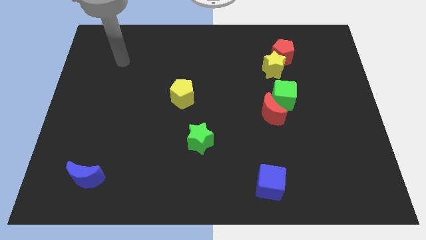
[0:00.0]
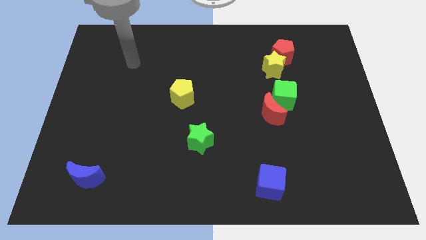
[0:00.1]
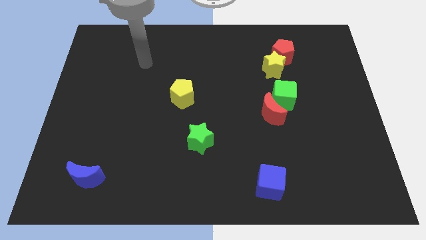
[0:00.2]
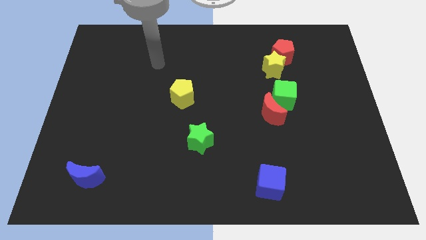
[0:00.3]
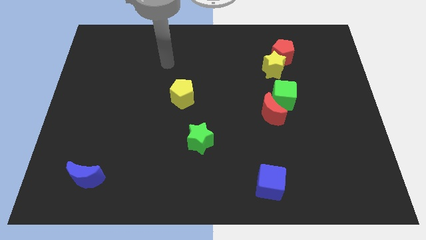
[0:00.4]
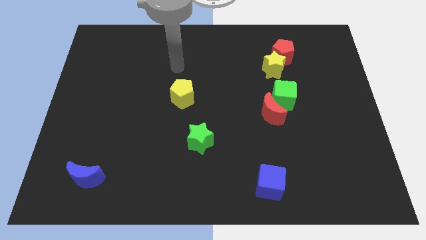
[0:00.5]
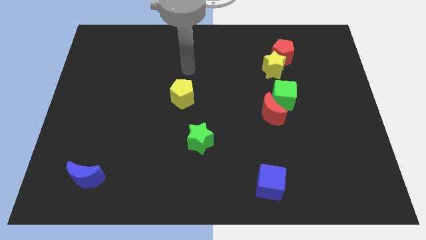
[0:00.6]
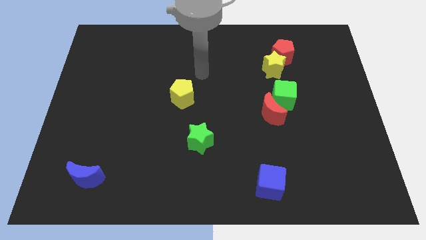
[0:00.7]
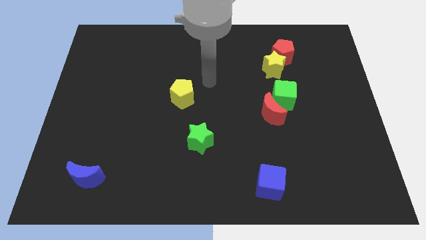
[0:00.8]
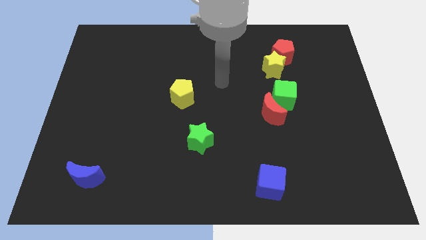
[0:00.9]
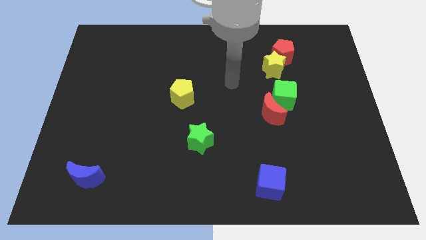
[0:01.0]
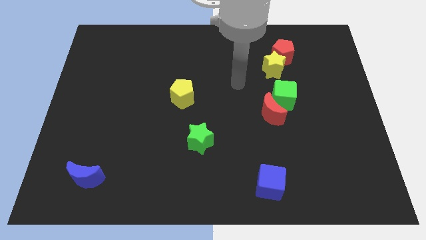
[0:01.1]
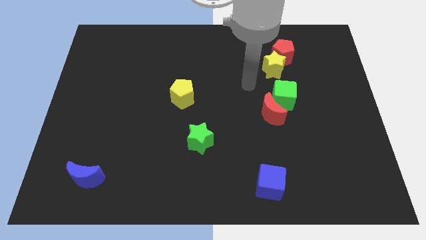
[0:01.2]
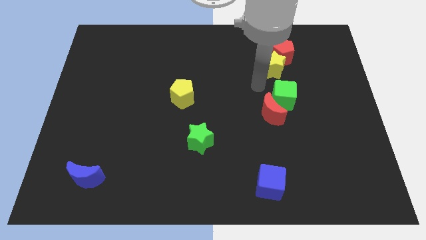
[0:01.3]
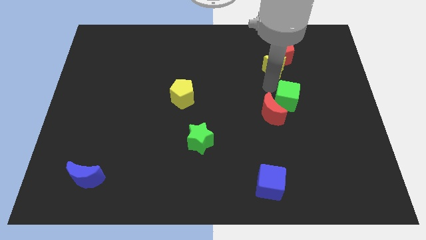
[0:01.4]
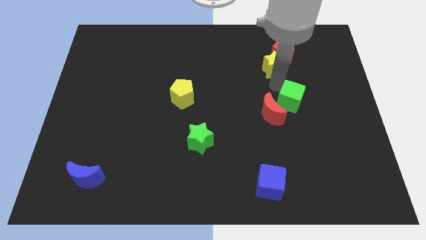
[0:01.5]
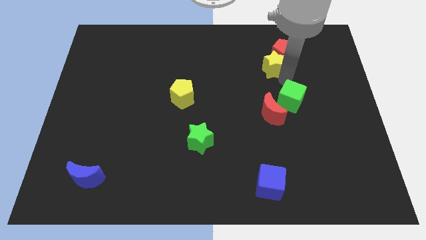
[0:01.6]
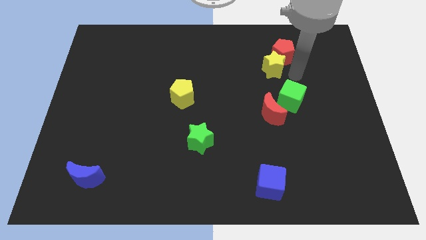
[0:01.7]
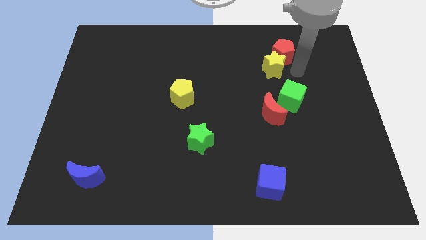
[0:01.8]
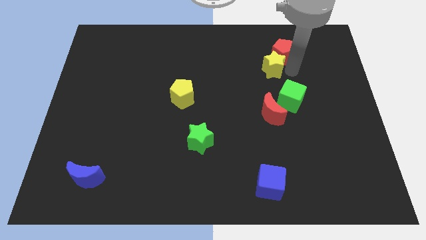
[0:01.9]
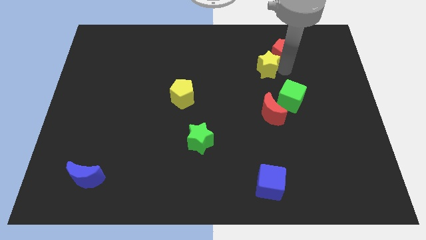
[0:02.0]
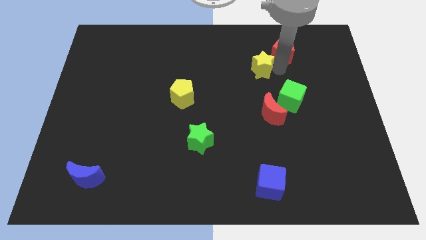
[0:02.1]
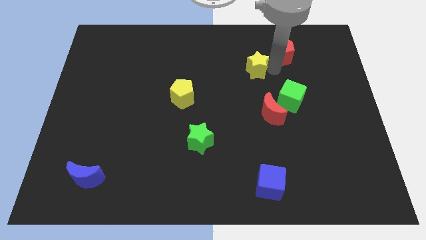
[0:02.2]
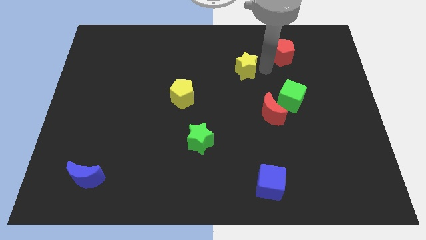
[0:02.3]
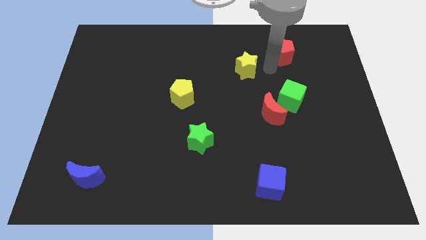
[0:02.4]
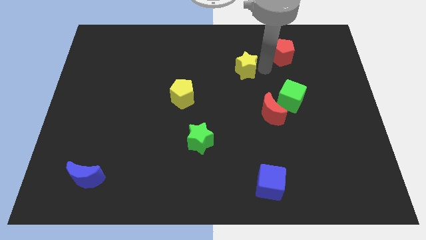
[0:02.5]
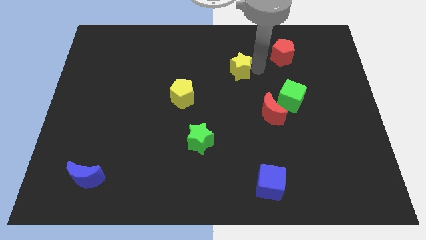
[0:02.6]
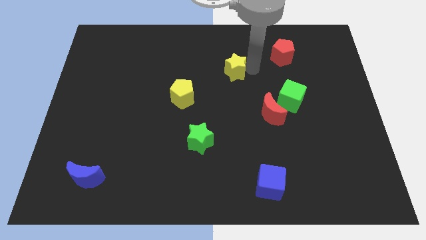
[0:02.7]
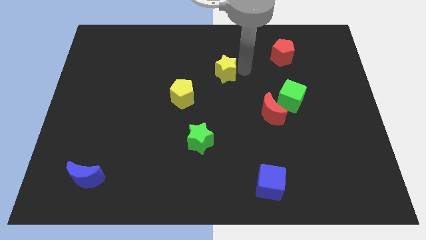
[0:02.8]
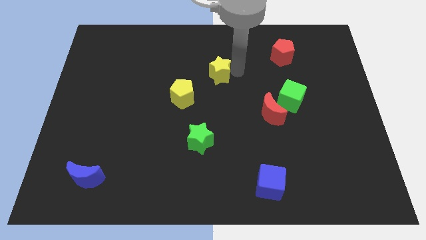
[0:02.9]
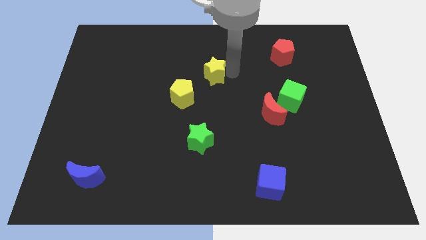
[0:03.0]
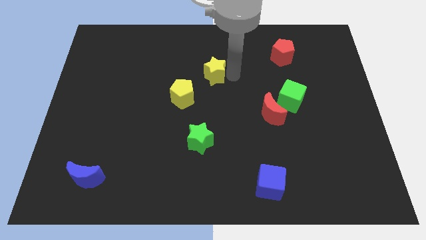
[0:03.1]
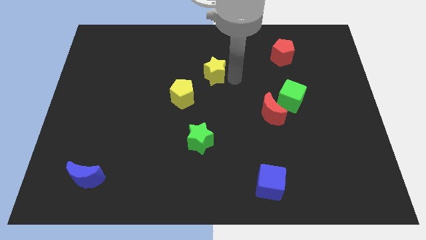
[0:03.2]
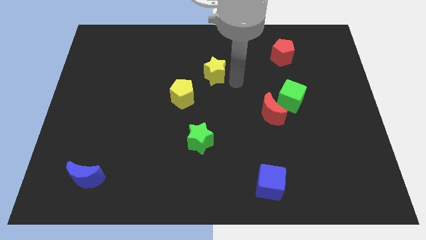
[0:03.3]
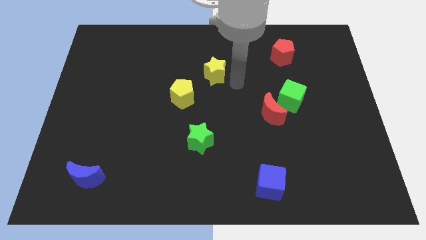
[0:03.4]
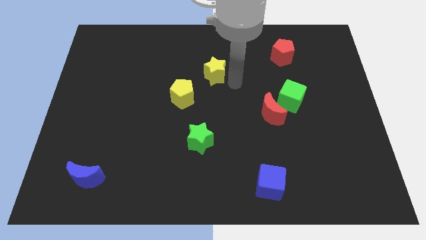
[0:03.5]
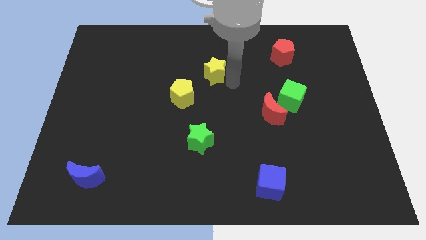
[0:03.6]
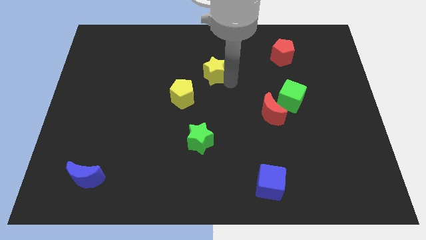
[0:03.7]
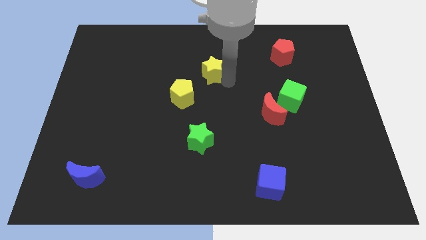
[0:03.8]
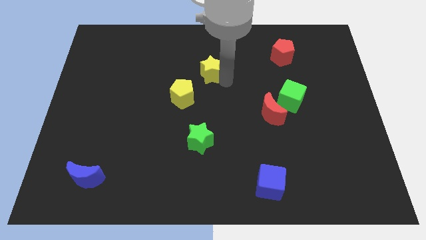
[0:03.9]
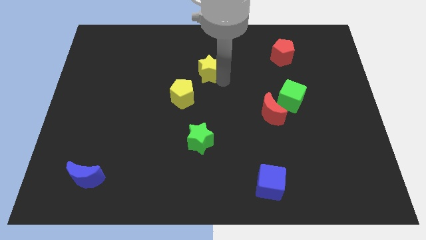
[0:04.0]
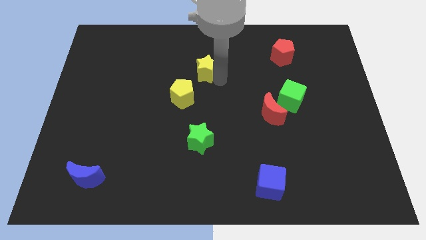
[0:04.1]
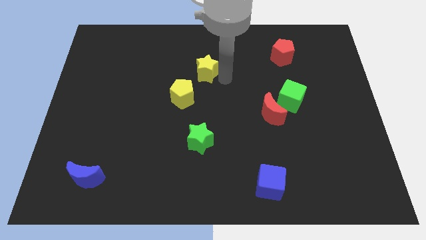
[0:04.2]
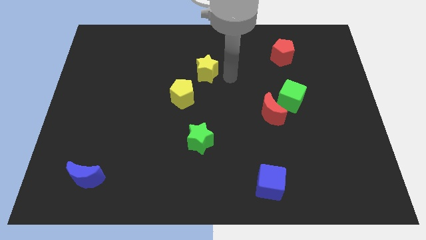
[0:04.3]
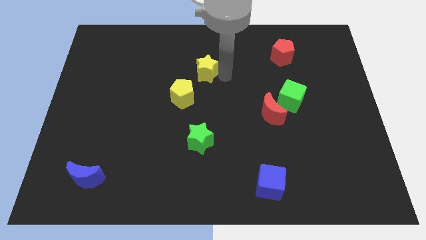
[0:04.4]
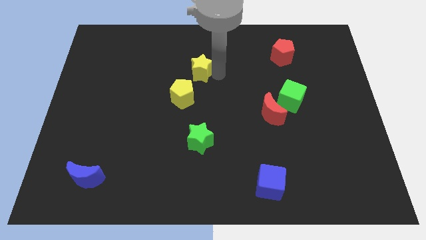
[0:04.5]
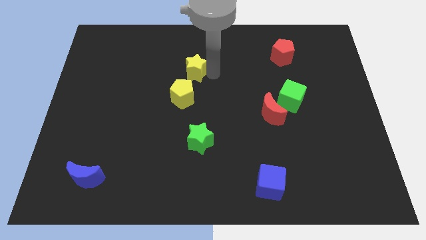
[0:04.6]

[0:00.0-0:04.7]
move the yellow star left

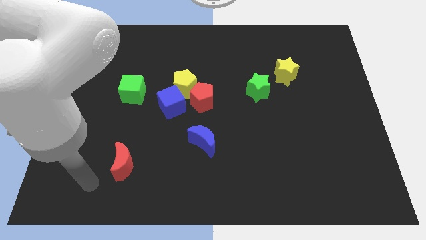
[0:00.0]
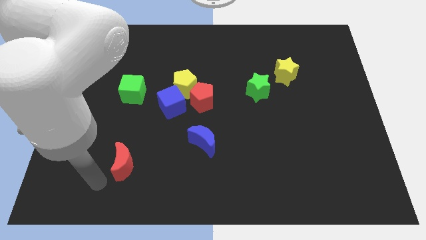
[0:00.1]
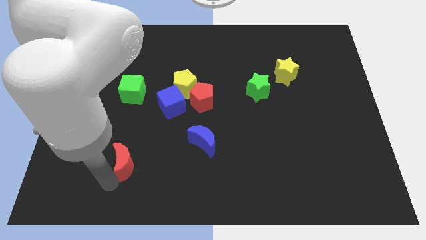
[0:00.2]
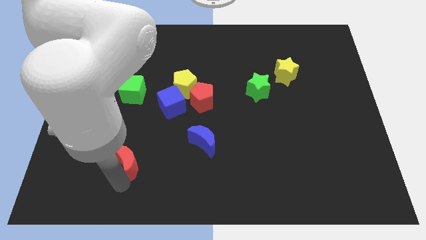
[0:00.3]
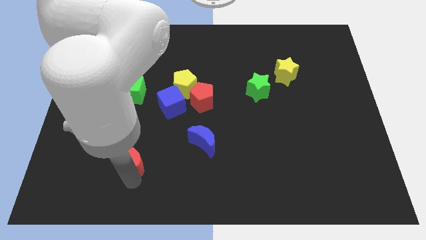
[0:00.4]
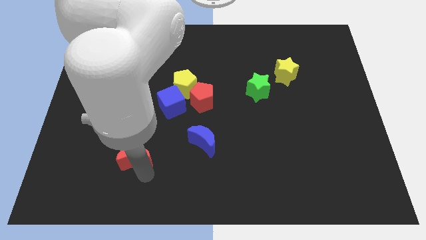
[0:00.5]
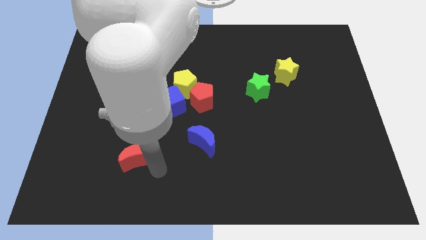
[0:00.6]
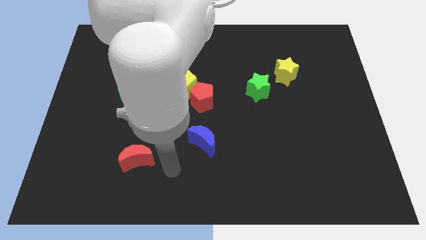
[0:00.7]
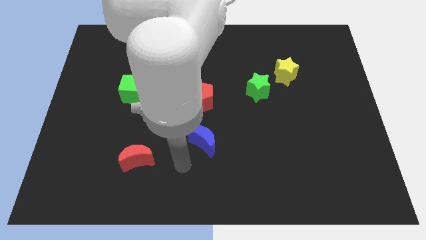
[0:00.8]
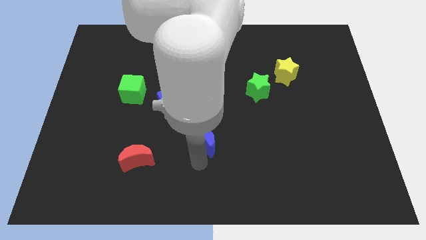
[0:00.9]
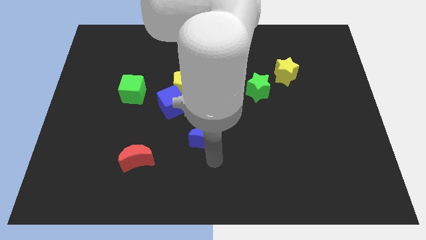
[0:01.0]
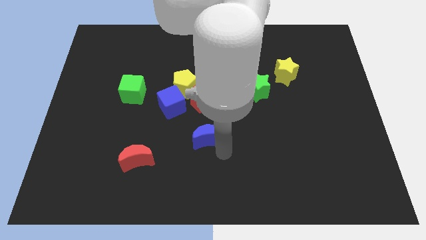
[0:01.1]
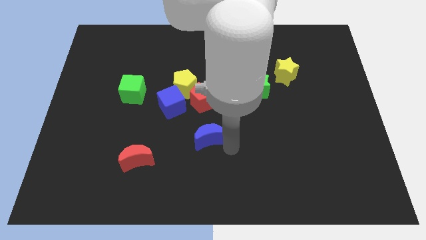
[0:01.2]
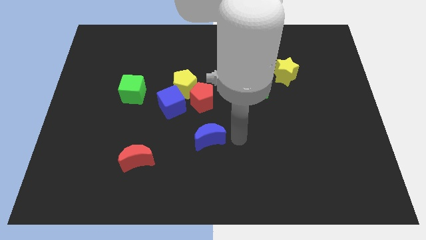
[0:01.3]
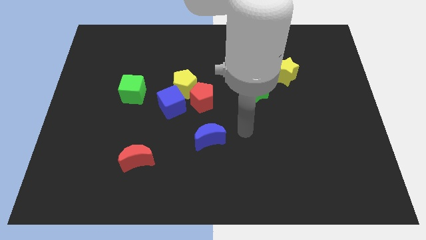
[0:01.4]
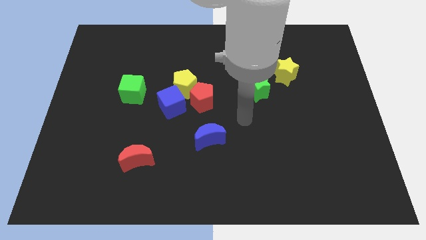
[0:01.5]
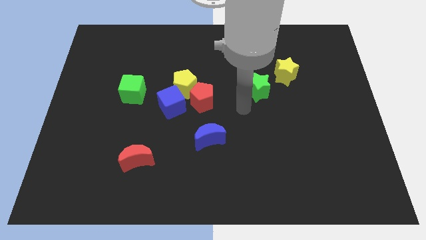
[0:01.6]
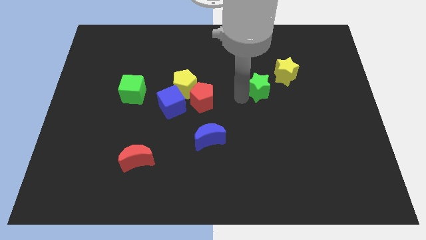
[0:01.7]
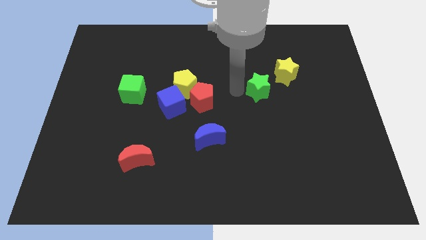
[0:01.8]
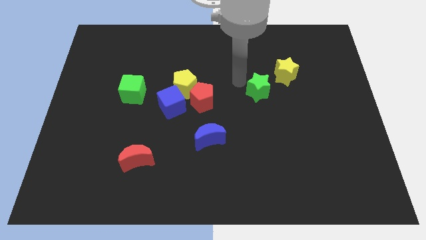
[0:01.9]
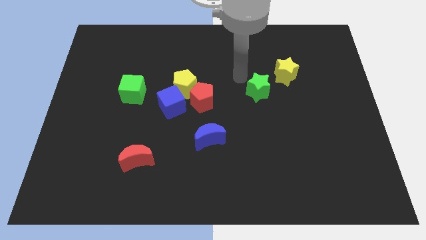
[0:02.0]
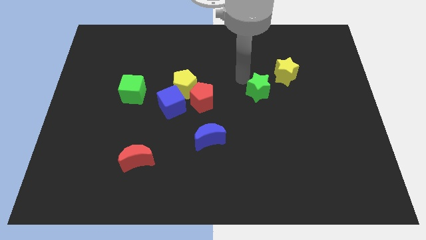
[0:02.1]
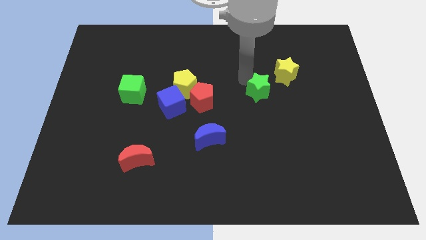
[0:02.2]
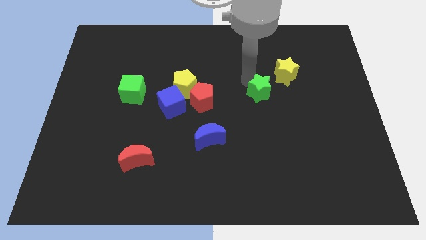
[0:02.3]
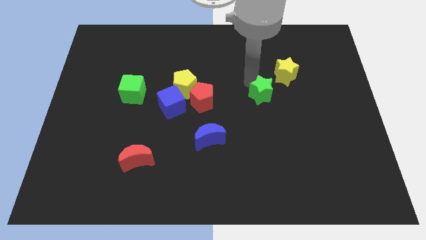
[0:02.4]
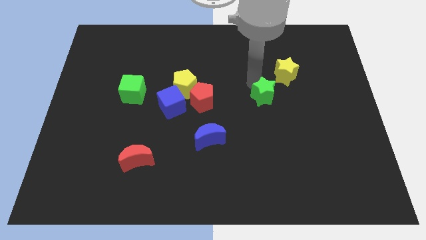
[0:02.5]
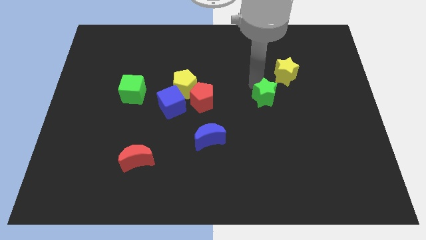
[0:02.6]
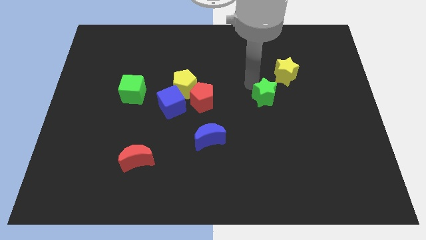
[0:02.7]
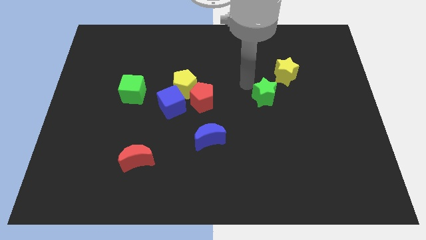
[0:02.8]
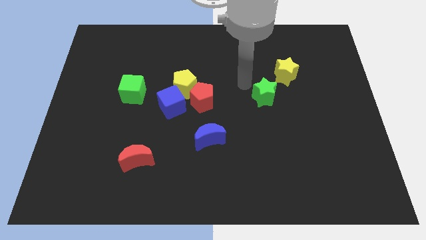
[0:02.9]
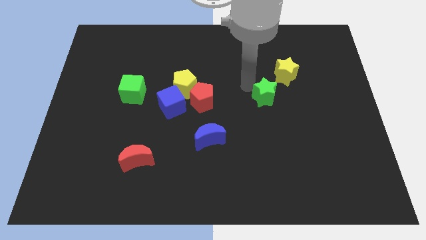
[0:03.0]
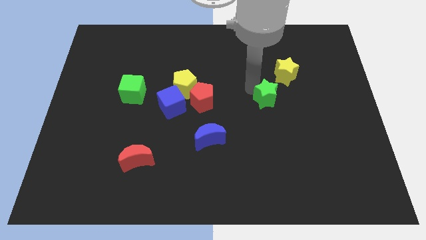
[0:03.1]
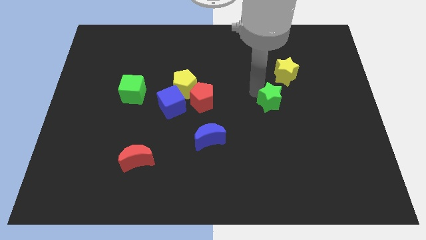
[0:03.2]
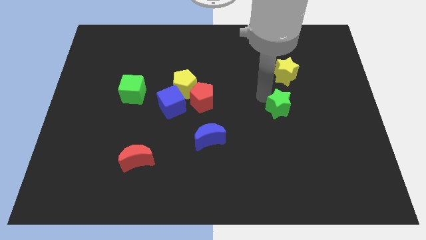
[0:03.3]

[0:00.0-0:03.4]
slightly move the green star downwards and right
